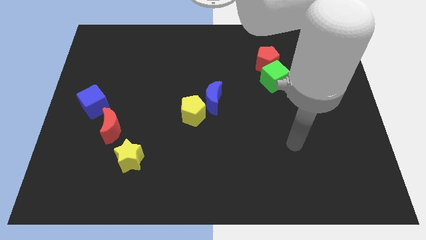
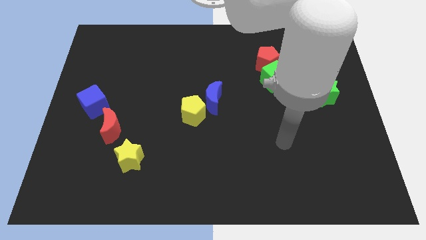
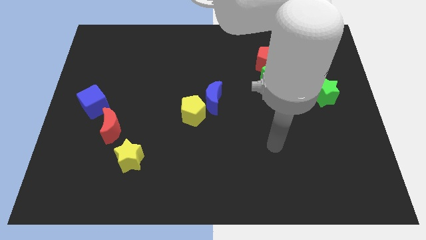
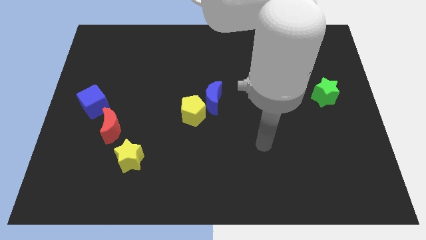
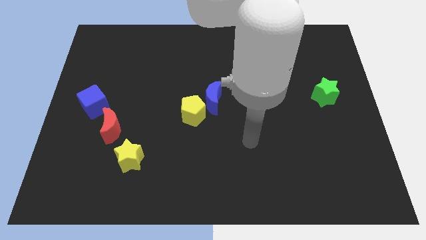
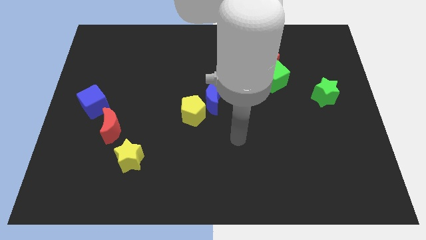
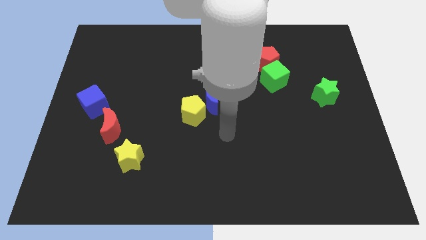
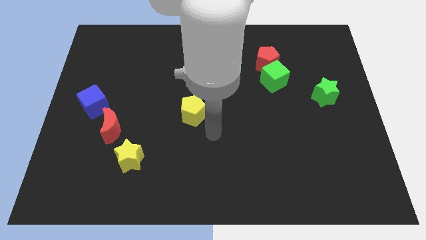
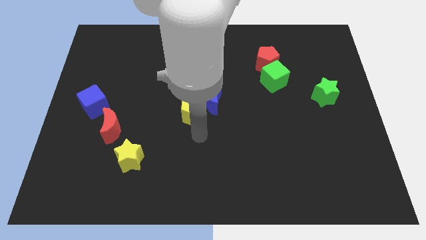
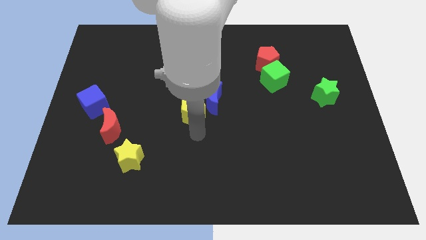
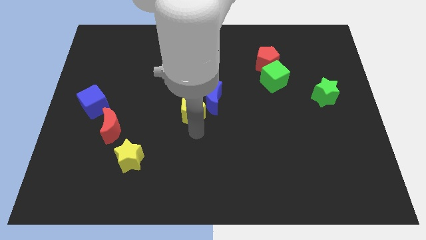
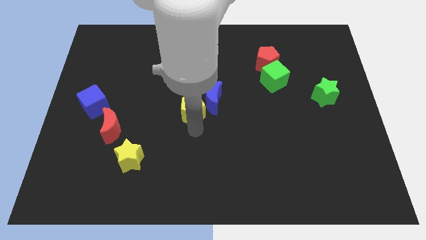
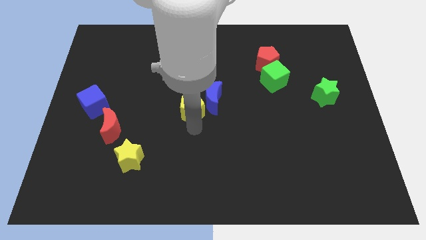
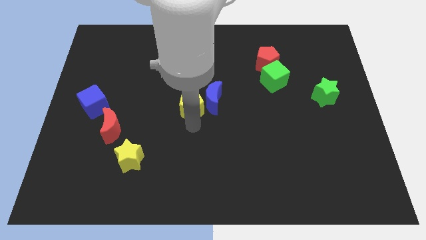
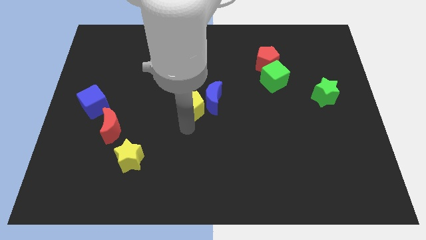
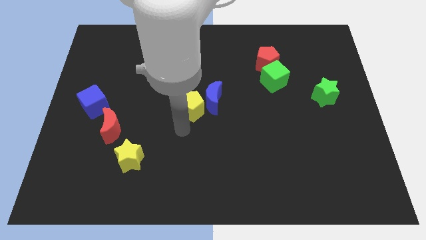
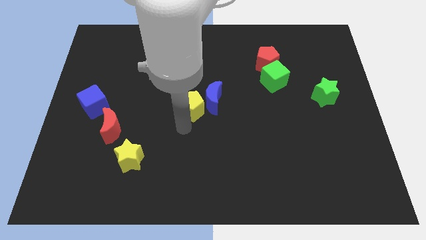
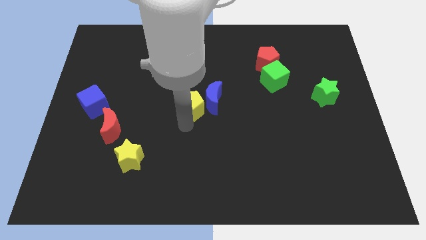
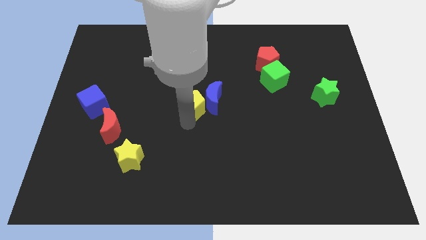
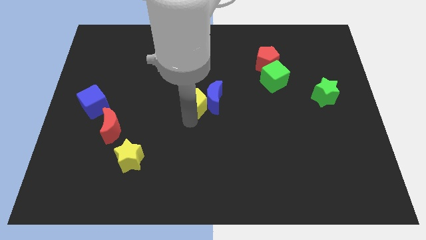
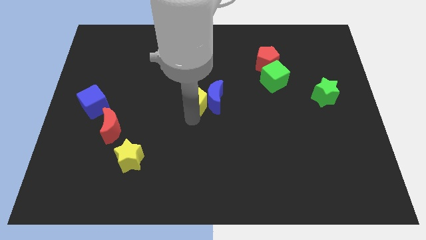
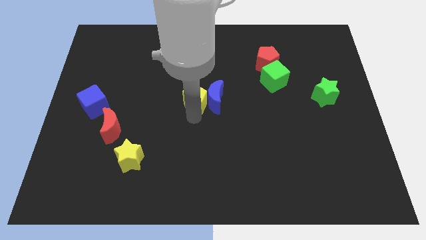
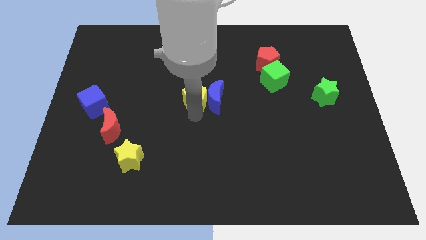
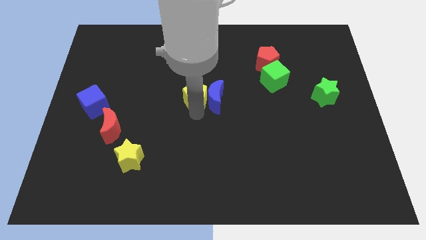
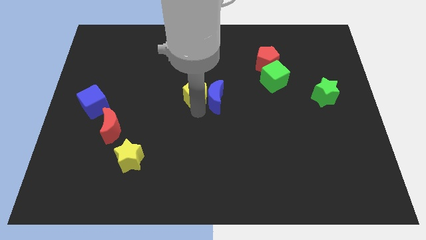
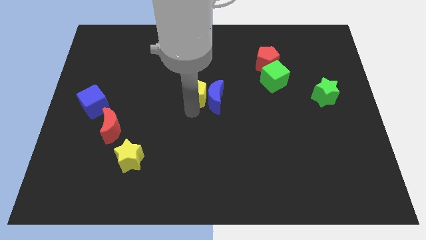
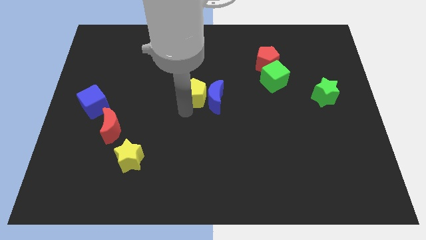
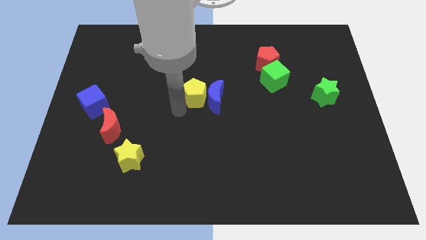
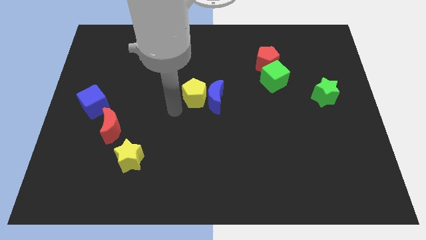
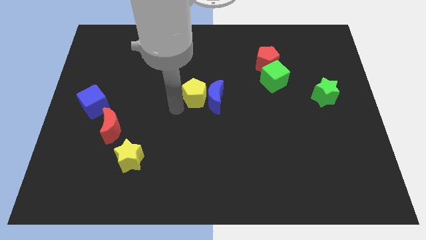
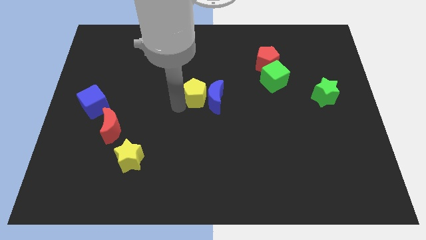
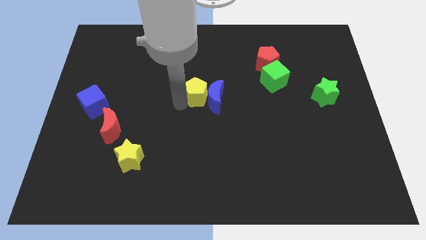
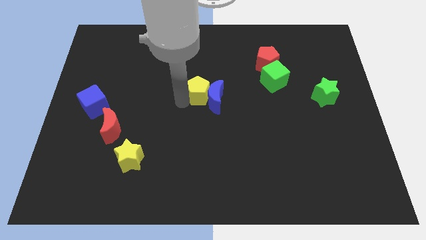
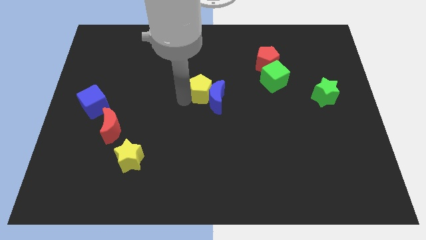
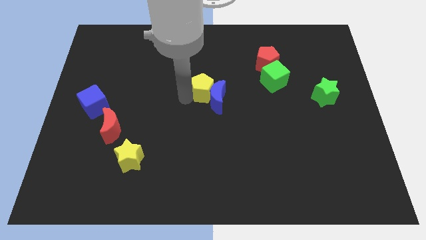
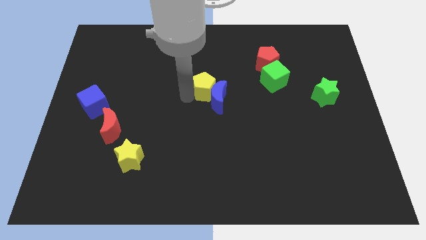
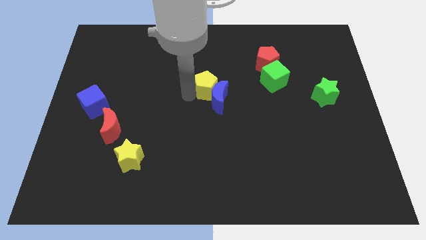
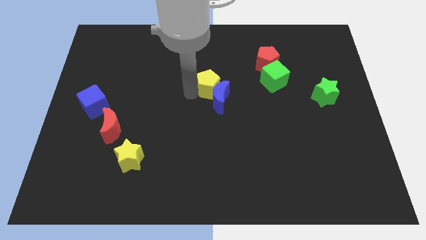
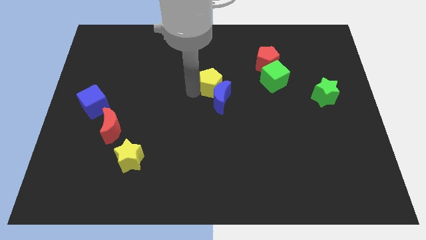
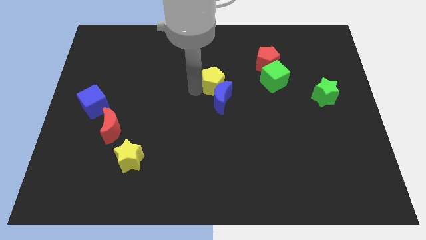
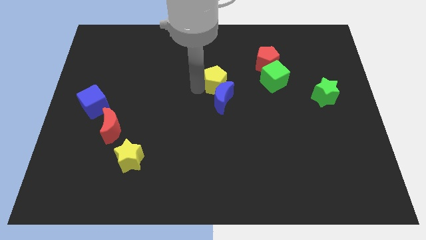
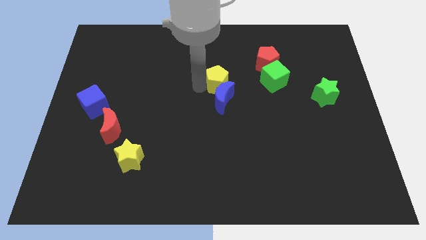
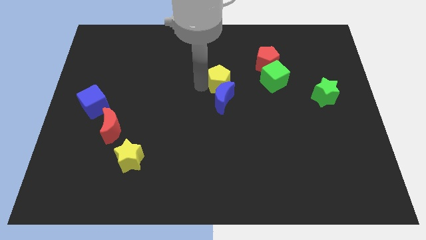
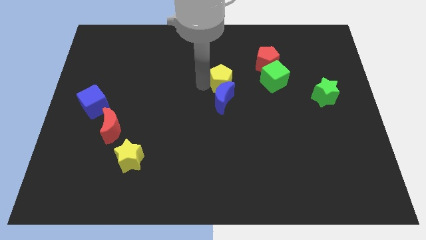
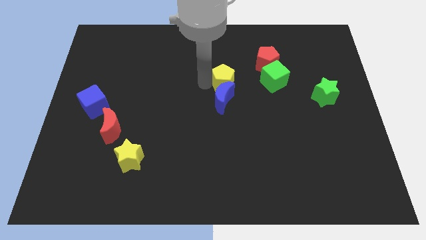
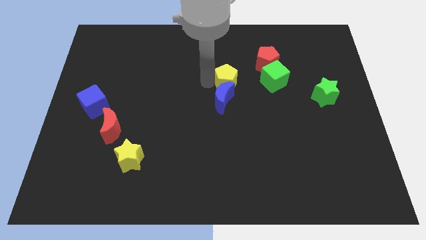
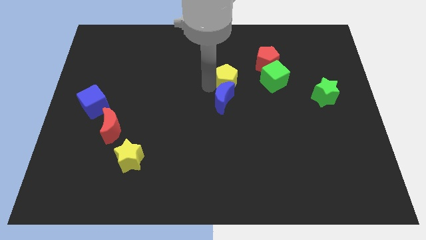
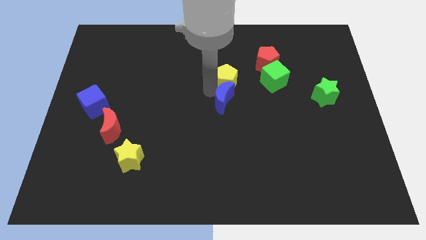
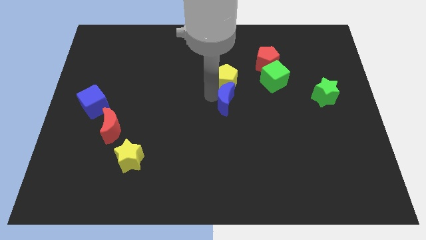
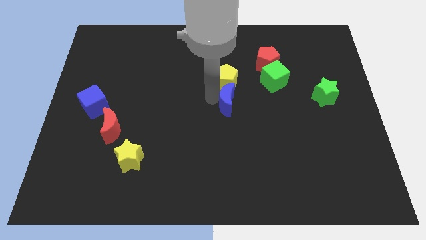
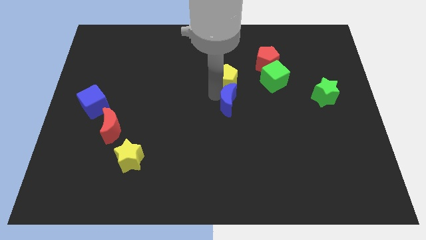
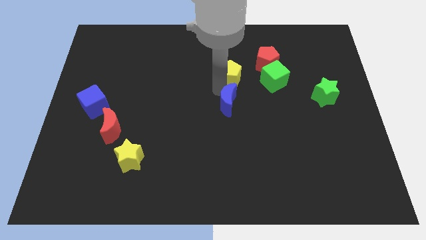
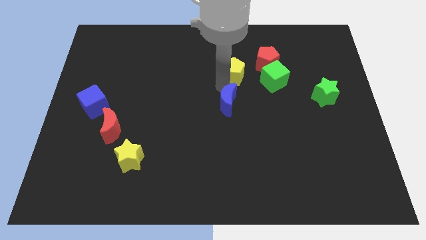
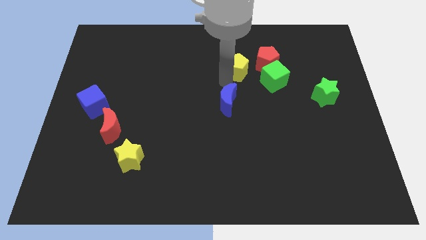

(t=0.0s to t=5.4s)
put the yellow pentagon diagonally up and to the left of the green cube

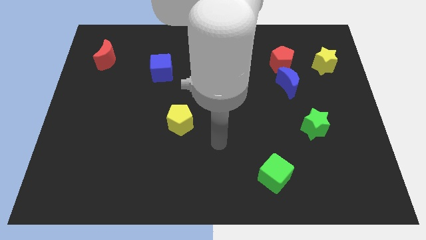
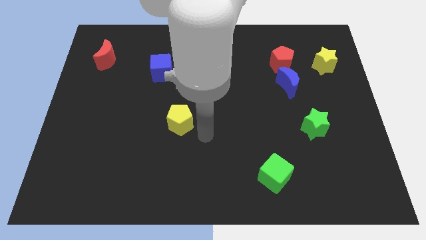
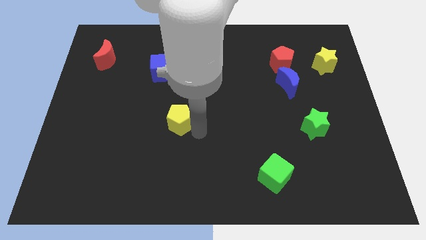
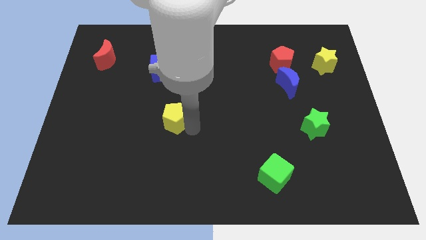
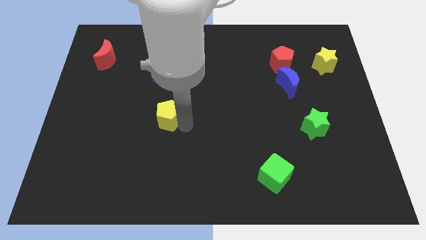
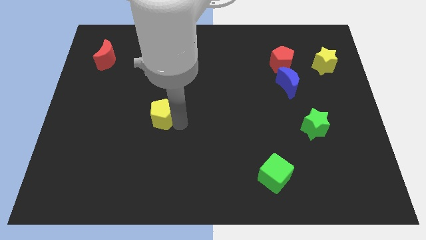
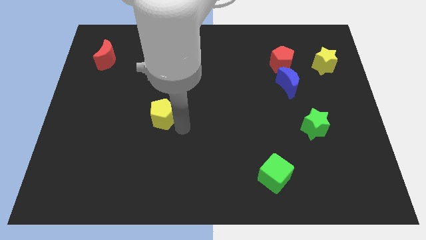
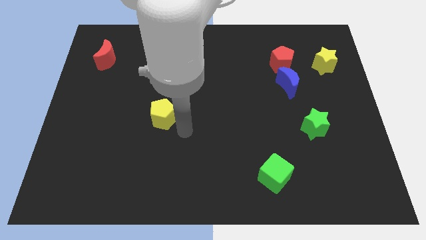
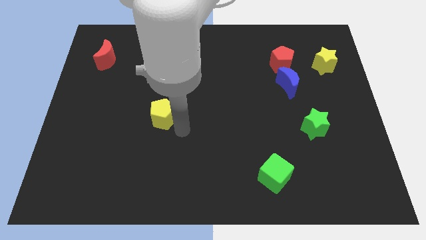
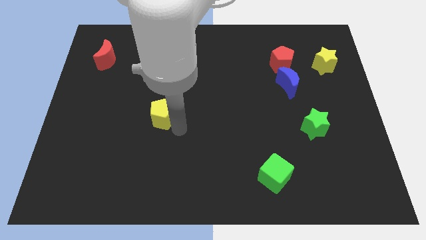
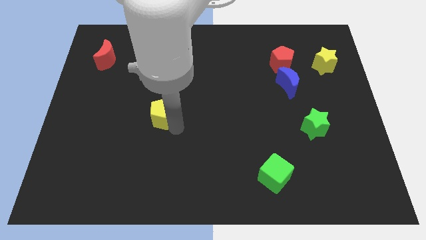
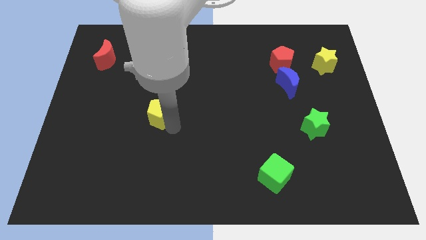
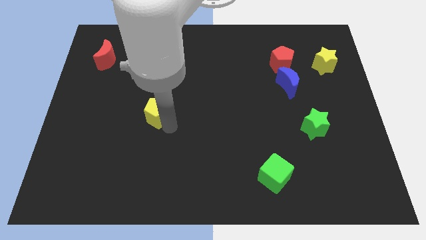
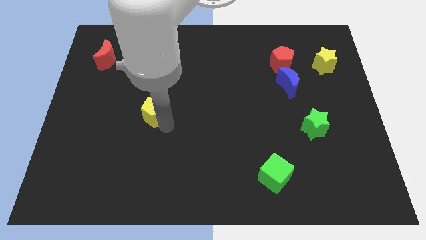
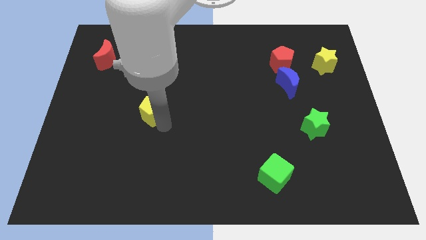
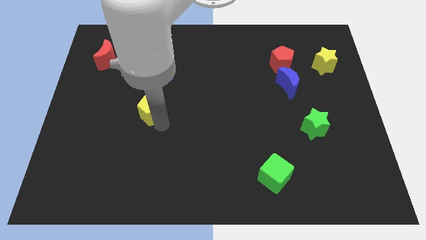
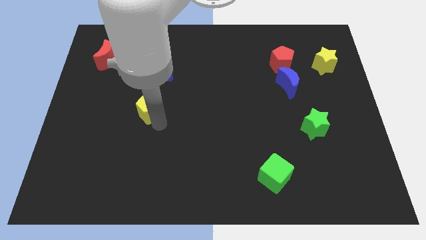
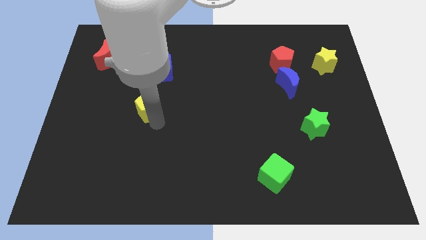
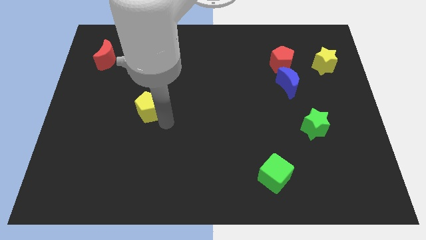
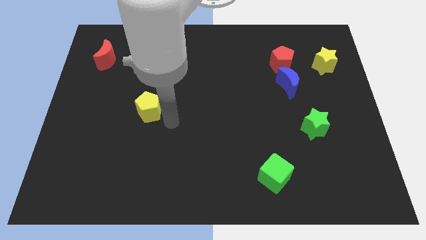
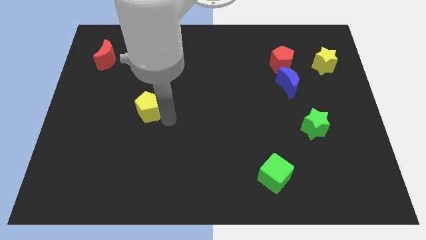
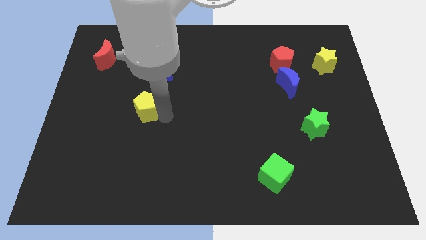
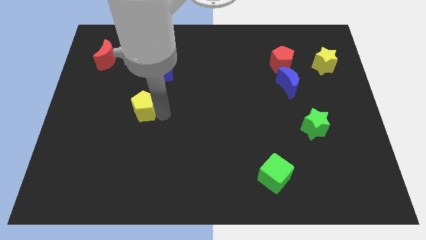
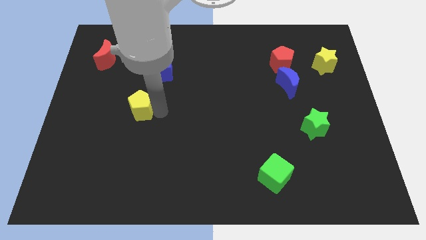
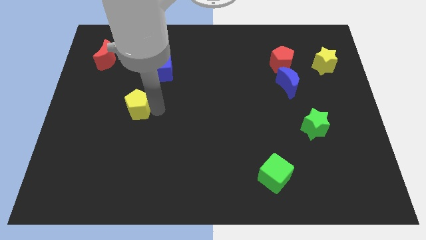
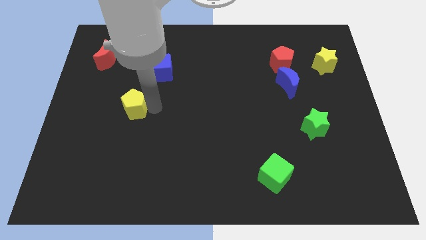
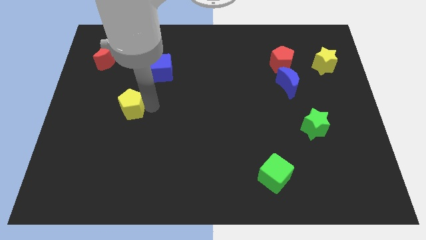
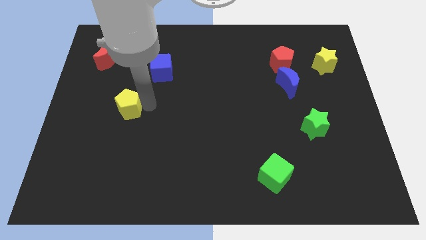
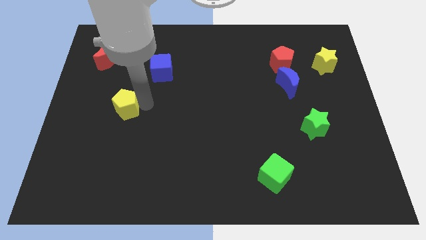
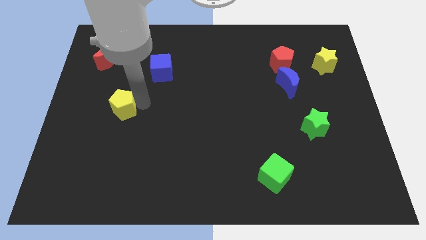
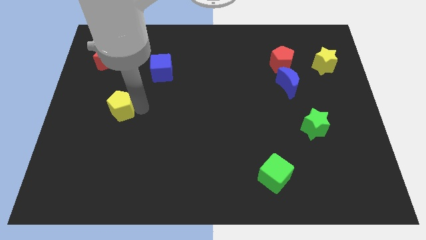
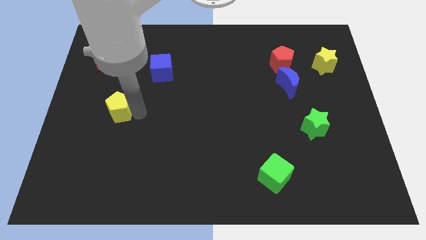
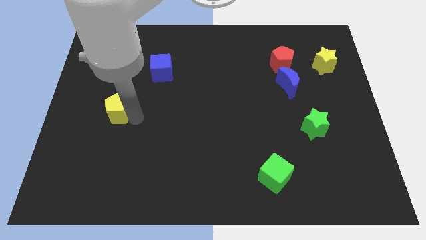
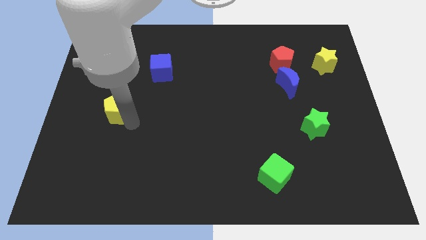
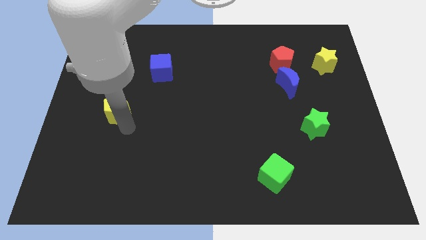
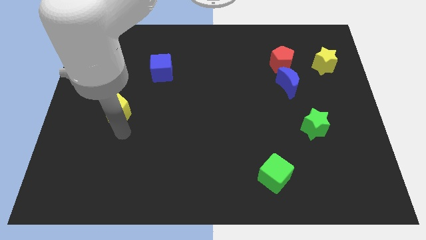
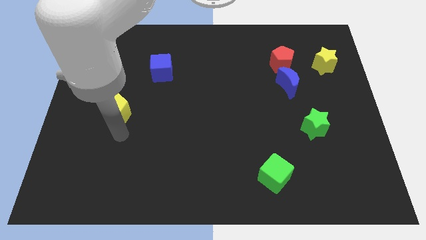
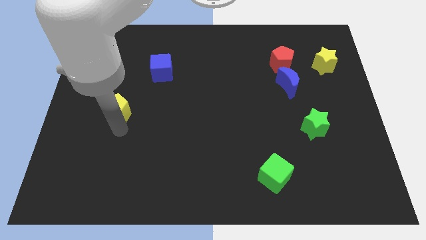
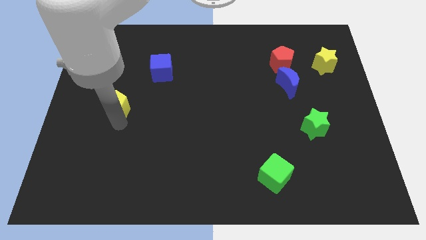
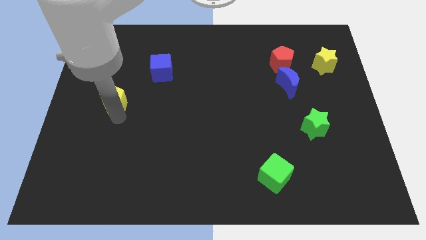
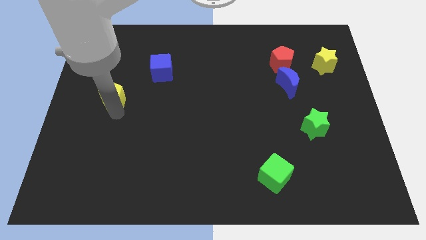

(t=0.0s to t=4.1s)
push the yellow pentagon to the bottom side of the red moon
